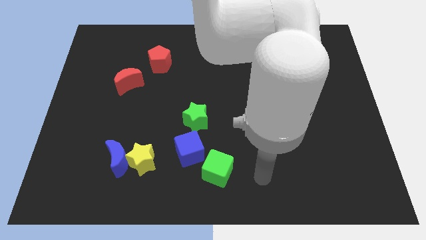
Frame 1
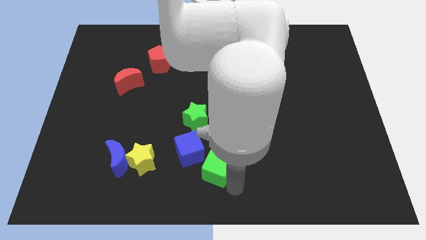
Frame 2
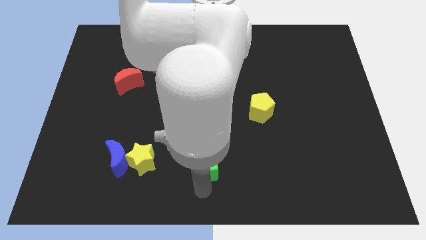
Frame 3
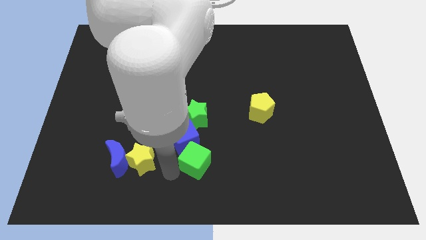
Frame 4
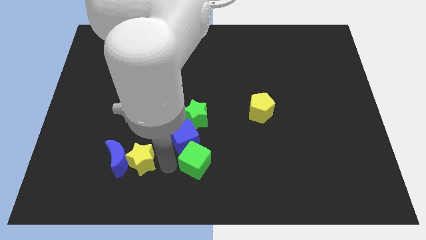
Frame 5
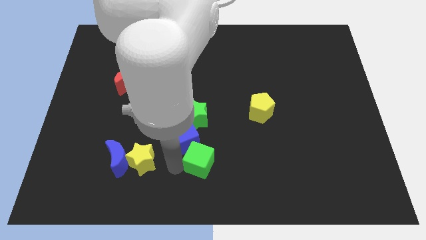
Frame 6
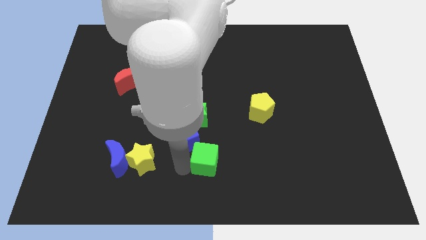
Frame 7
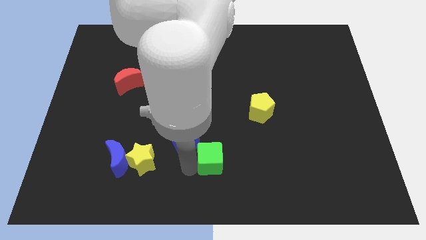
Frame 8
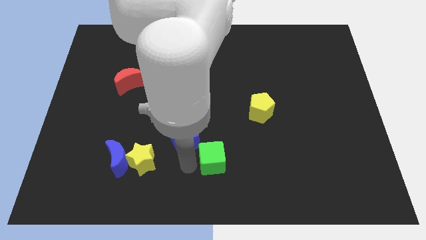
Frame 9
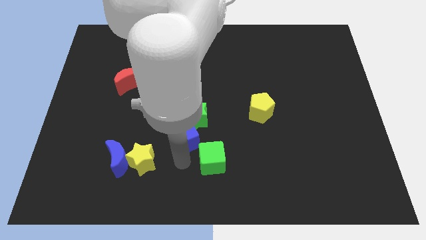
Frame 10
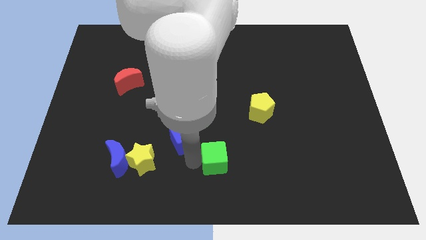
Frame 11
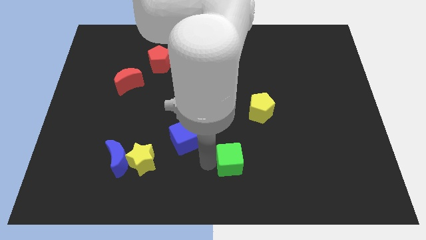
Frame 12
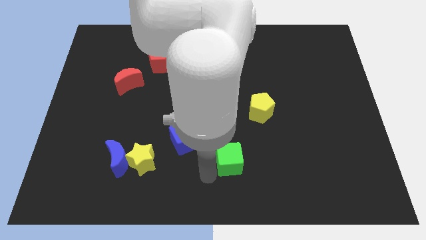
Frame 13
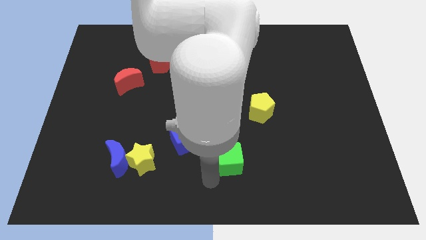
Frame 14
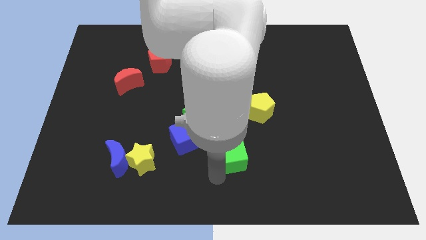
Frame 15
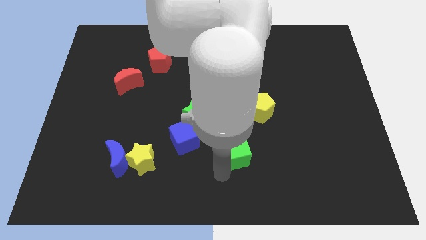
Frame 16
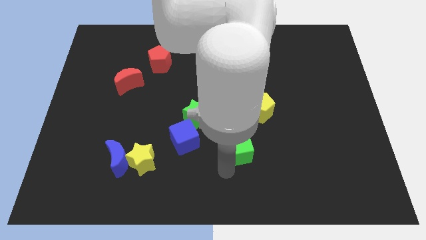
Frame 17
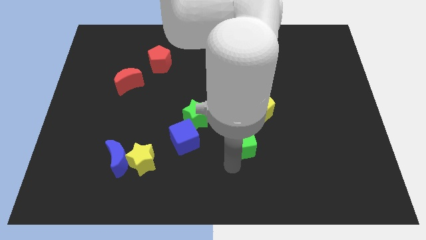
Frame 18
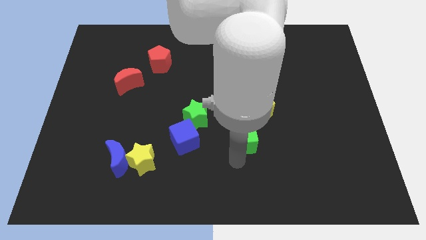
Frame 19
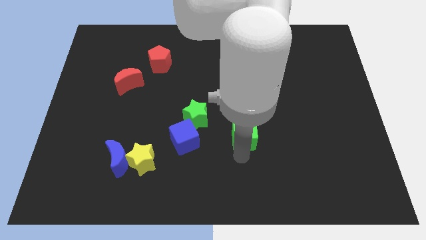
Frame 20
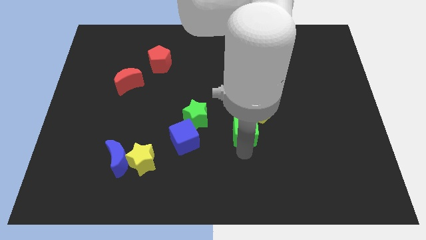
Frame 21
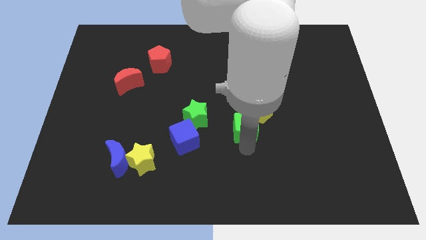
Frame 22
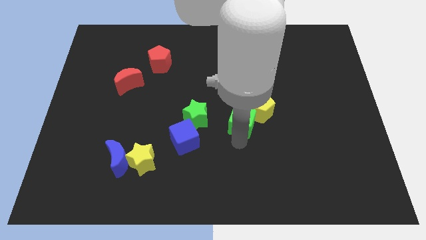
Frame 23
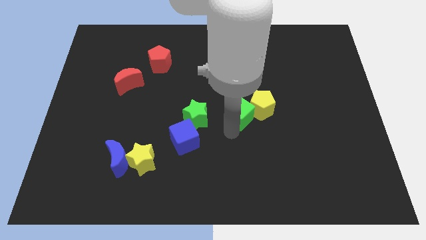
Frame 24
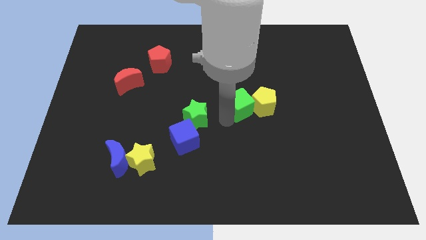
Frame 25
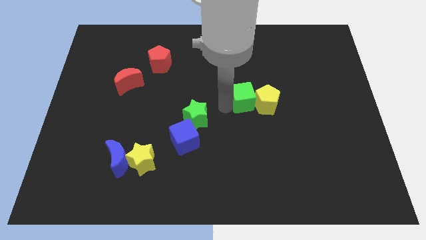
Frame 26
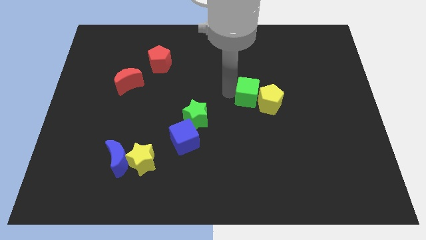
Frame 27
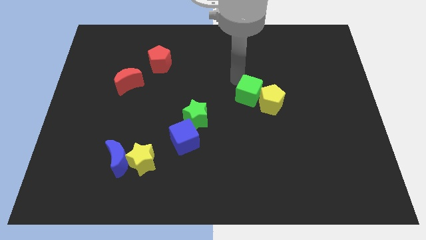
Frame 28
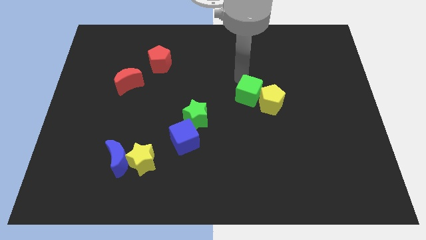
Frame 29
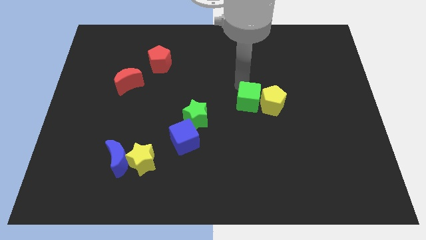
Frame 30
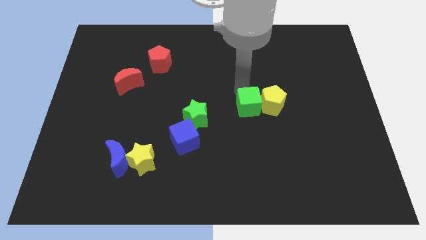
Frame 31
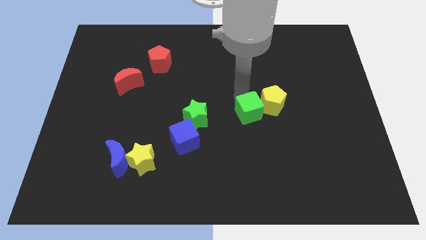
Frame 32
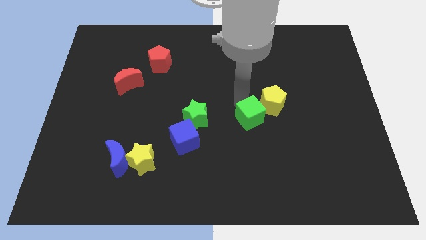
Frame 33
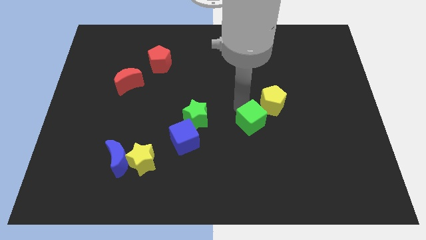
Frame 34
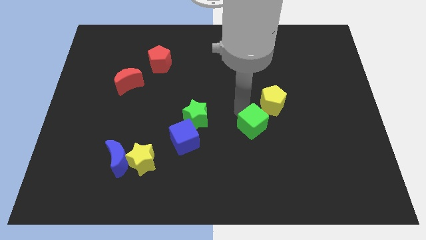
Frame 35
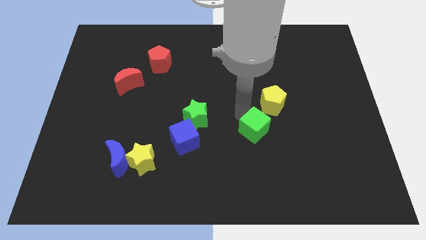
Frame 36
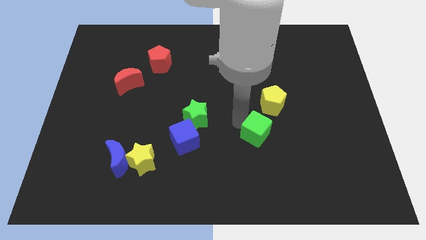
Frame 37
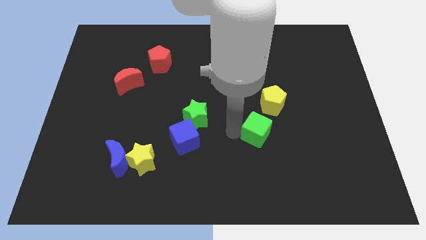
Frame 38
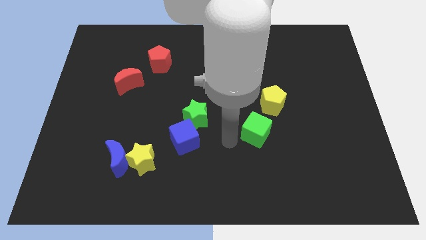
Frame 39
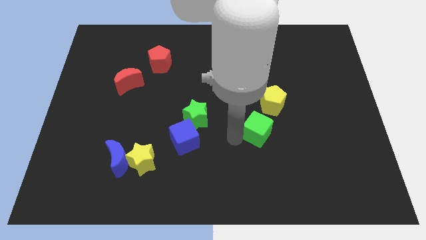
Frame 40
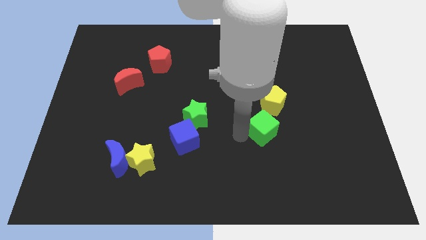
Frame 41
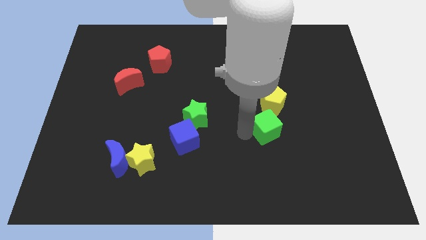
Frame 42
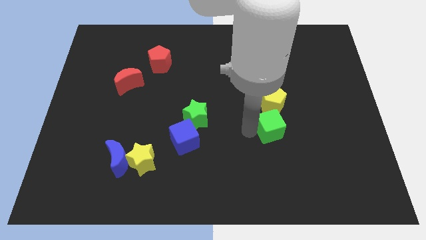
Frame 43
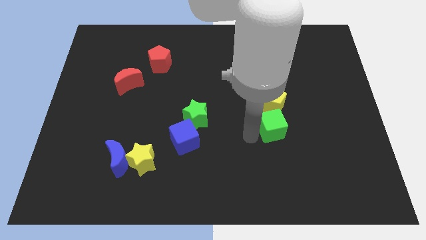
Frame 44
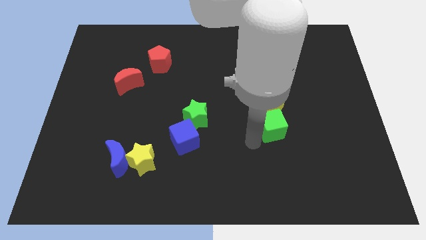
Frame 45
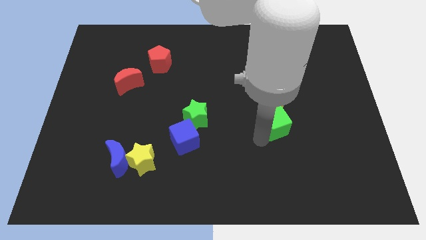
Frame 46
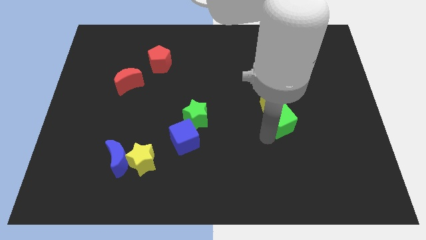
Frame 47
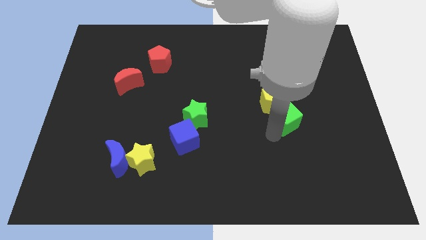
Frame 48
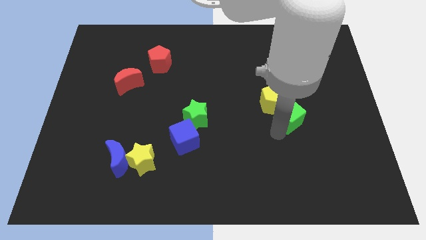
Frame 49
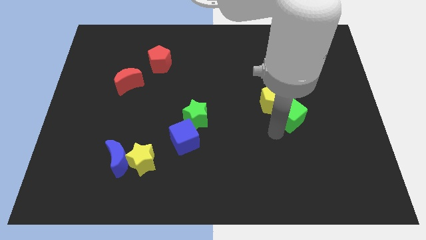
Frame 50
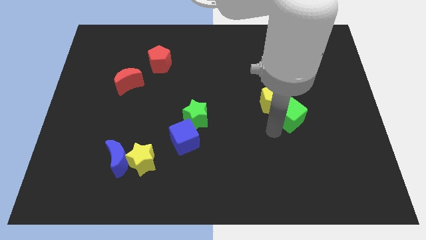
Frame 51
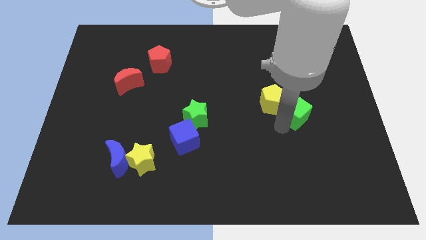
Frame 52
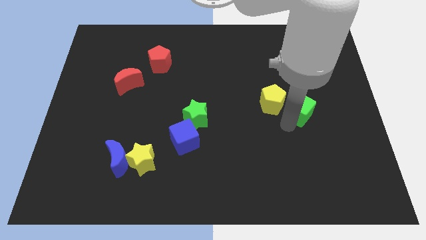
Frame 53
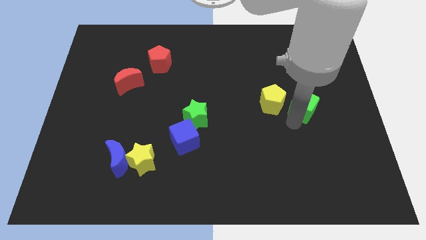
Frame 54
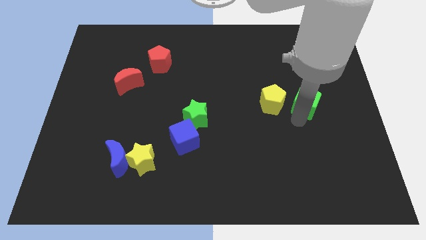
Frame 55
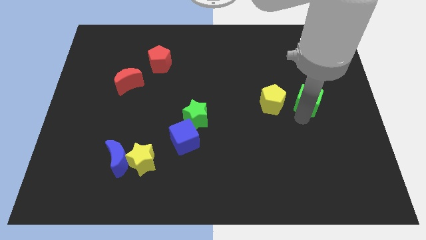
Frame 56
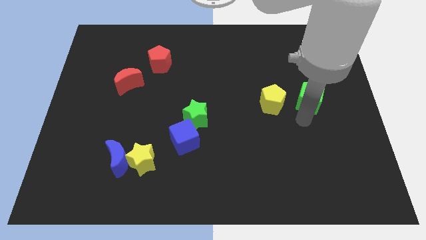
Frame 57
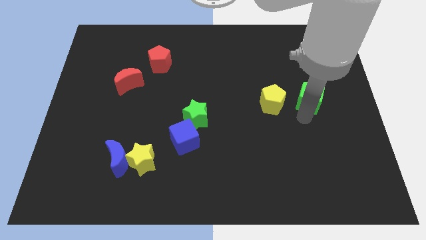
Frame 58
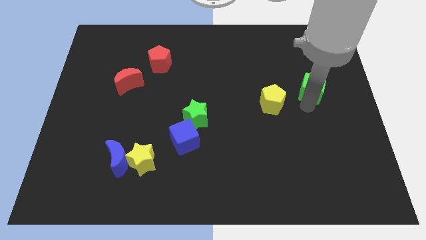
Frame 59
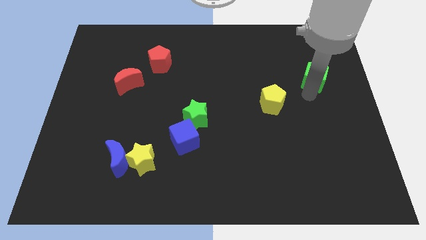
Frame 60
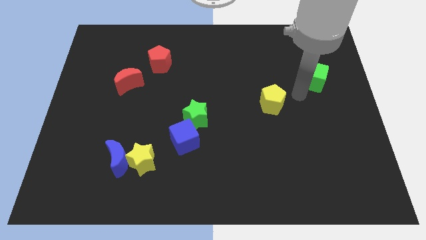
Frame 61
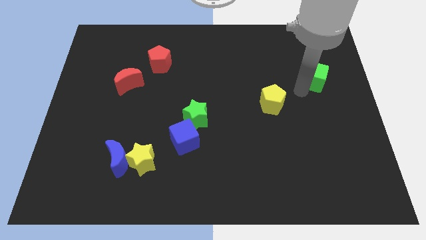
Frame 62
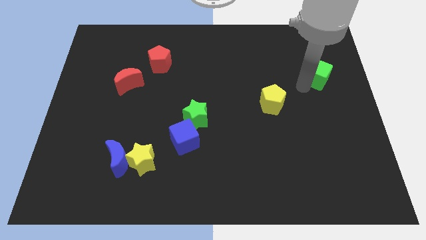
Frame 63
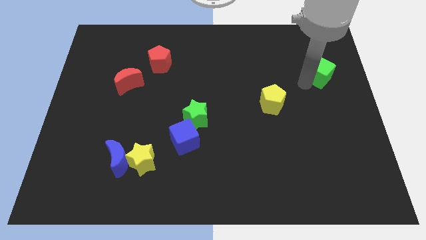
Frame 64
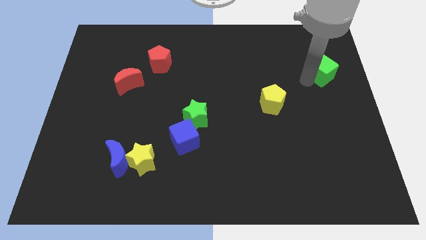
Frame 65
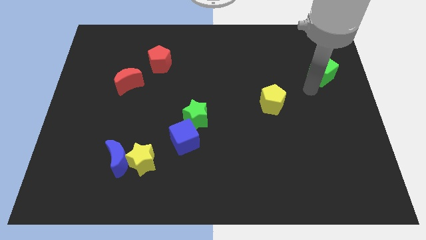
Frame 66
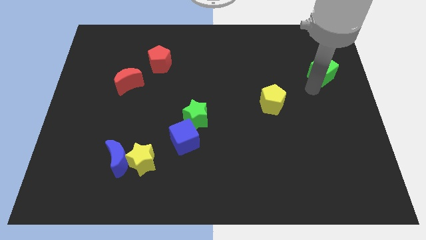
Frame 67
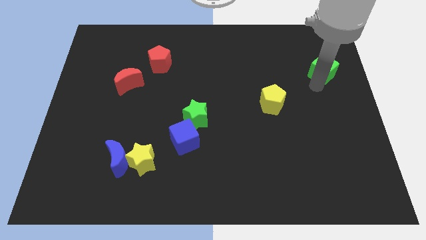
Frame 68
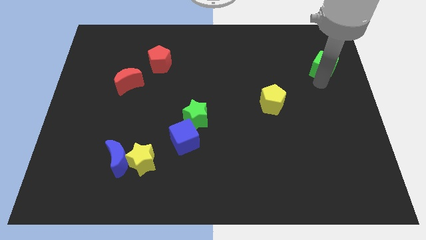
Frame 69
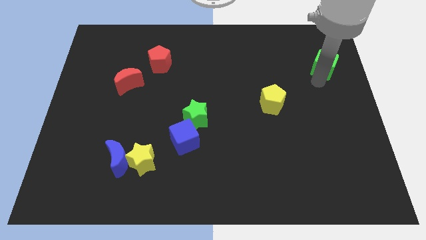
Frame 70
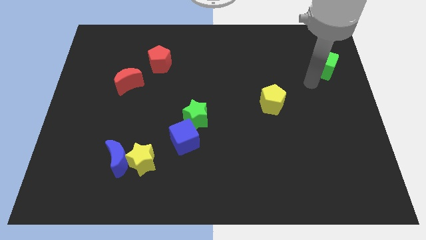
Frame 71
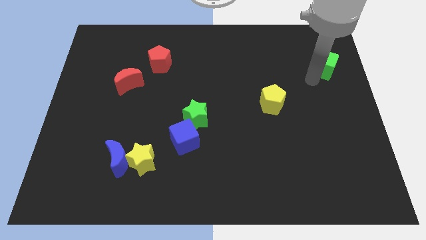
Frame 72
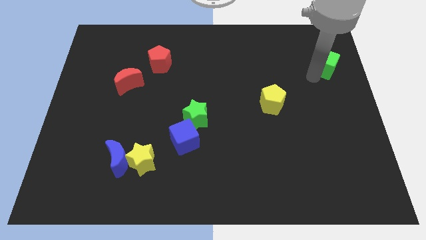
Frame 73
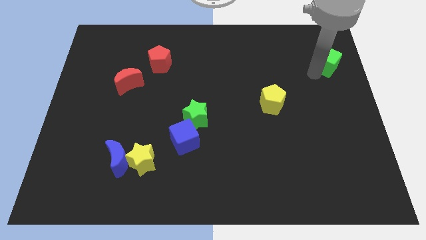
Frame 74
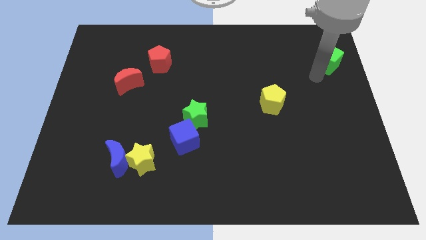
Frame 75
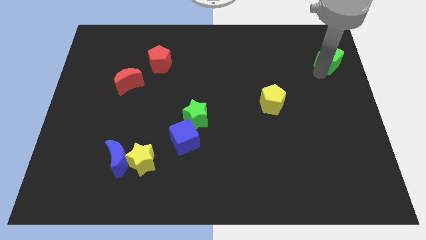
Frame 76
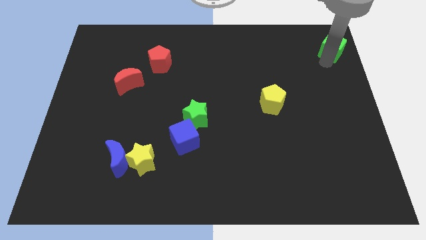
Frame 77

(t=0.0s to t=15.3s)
push the green cube to the top right of the board
